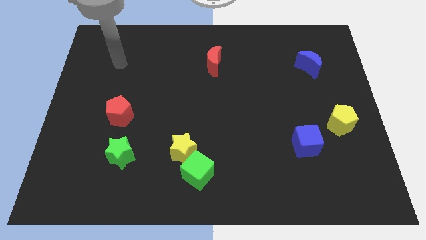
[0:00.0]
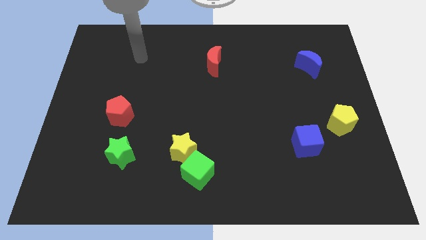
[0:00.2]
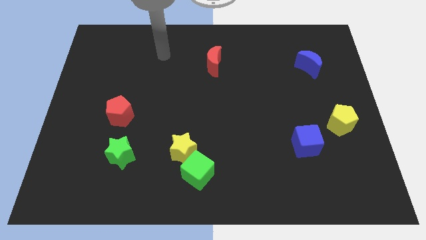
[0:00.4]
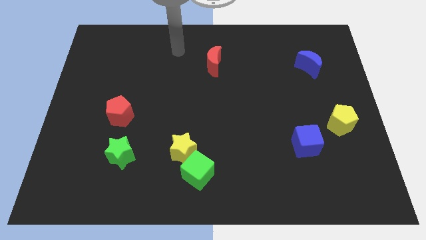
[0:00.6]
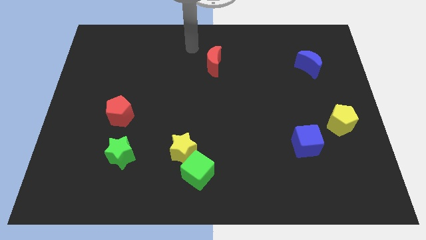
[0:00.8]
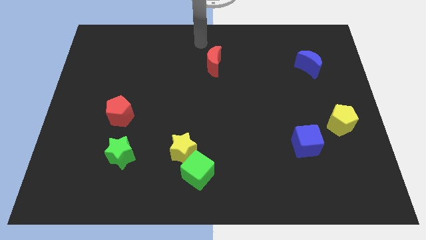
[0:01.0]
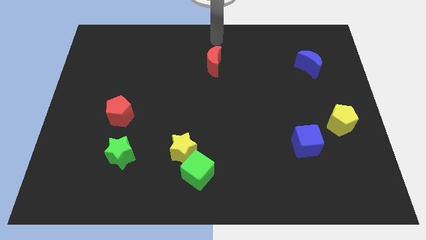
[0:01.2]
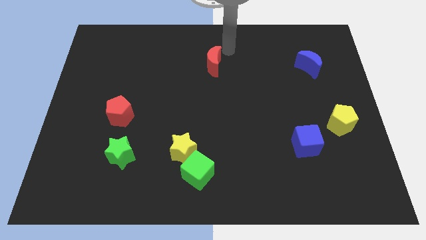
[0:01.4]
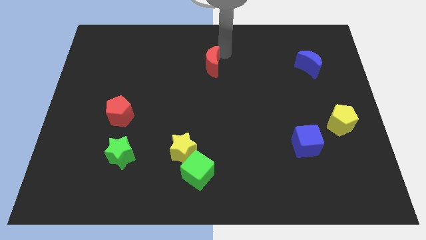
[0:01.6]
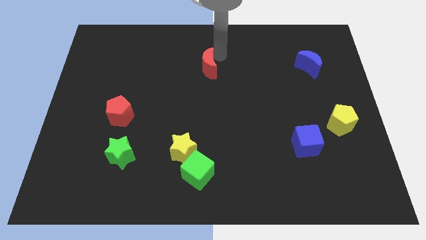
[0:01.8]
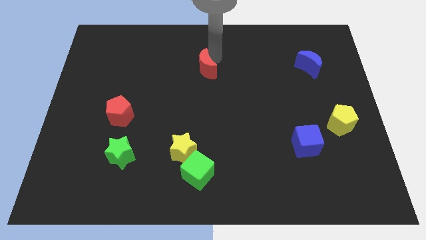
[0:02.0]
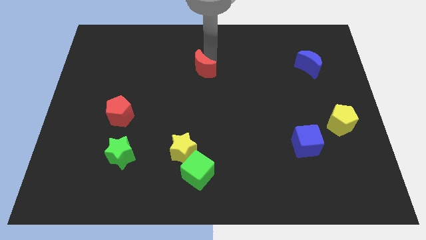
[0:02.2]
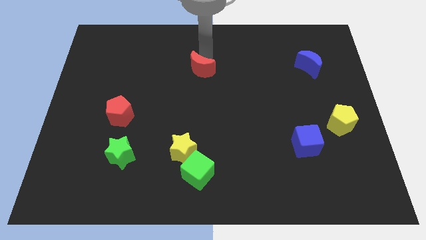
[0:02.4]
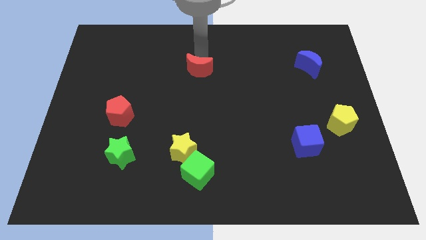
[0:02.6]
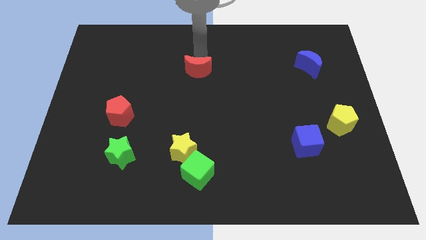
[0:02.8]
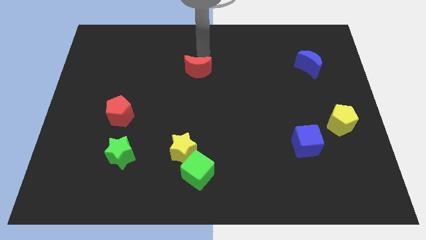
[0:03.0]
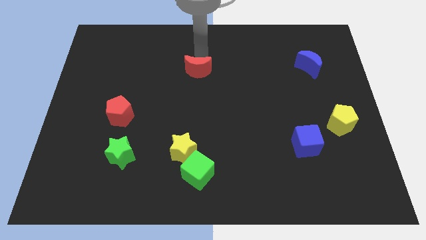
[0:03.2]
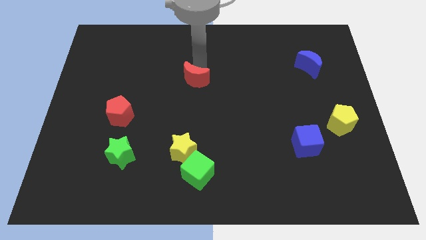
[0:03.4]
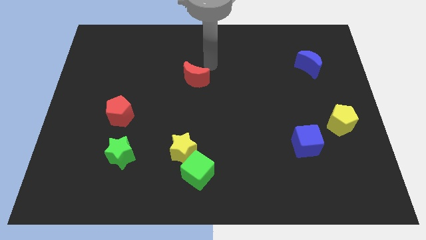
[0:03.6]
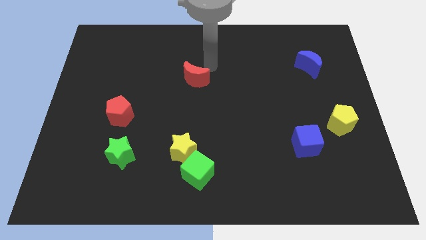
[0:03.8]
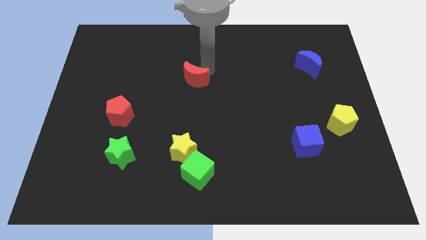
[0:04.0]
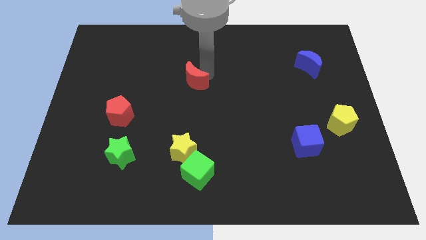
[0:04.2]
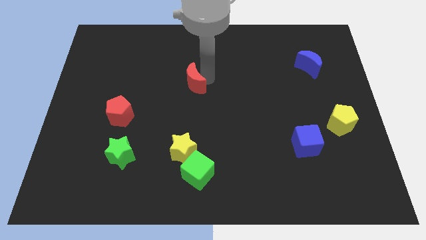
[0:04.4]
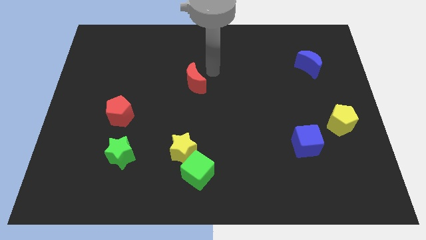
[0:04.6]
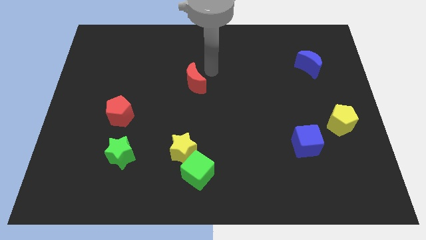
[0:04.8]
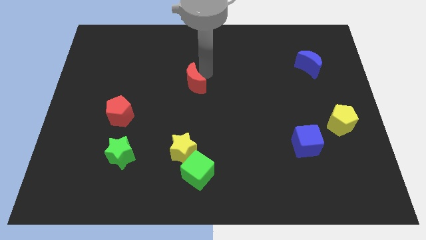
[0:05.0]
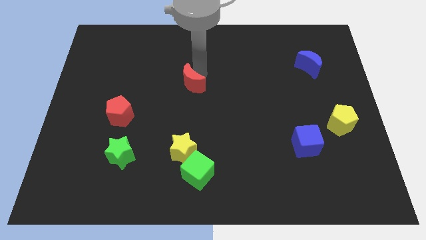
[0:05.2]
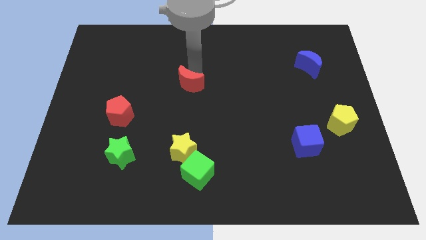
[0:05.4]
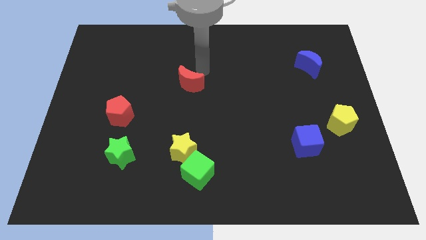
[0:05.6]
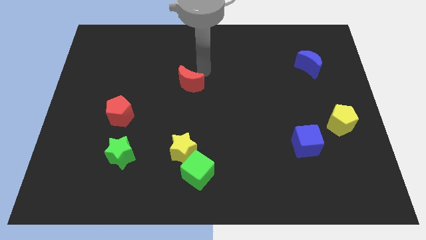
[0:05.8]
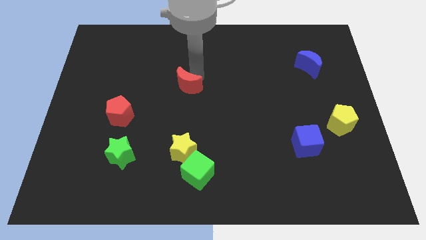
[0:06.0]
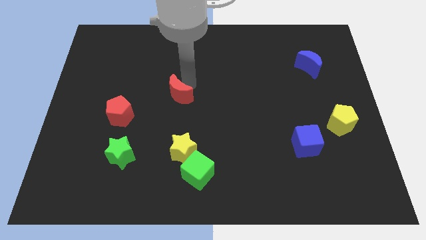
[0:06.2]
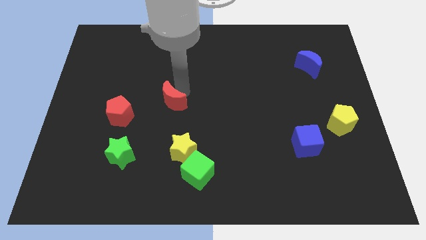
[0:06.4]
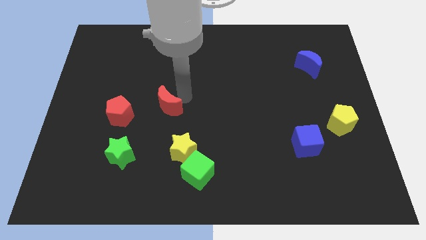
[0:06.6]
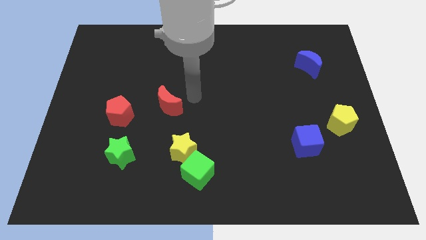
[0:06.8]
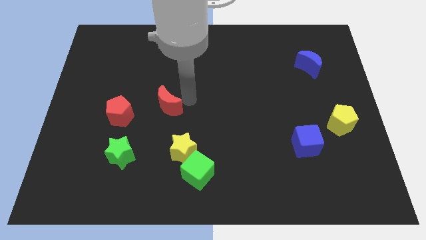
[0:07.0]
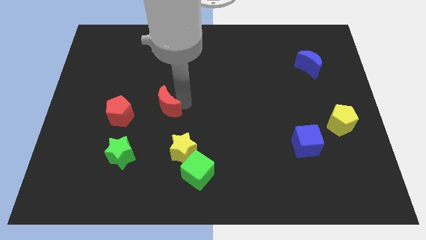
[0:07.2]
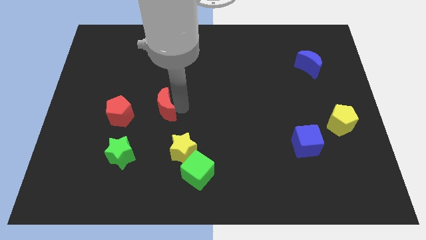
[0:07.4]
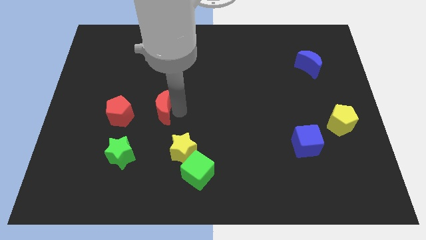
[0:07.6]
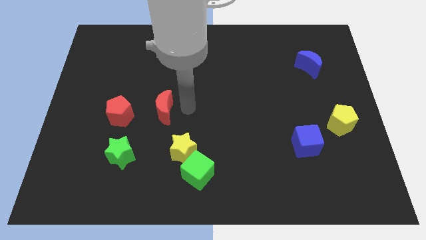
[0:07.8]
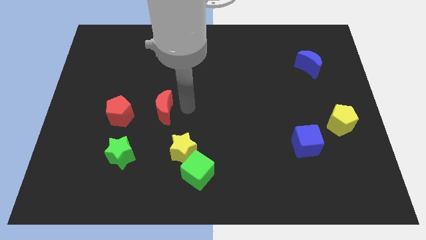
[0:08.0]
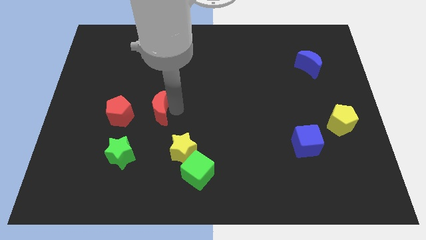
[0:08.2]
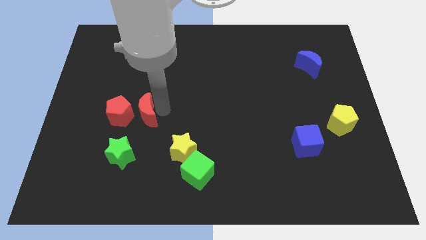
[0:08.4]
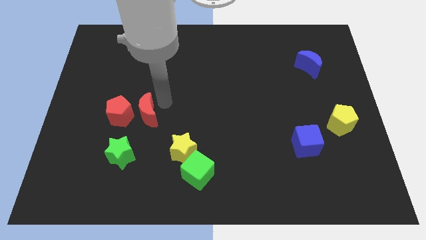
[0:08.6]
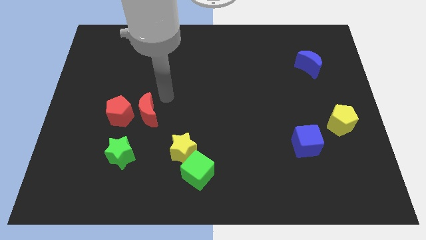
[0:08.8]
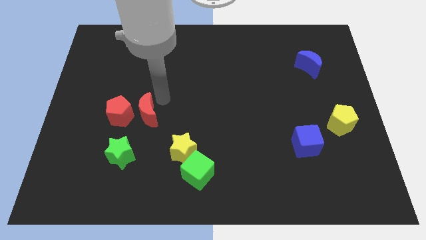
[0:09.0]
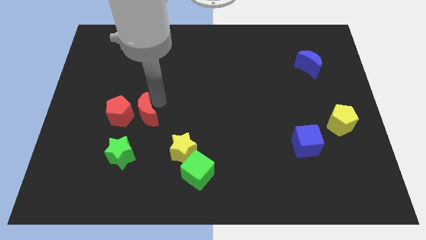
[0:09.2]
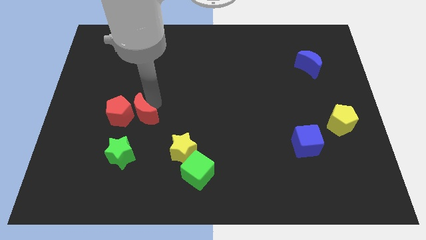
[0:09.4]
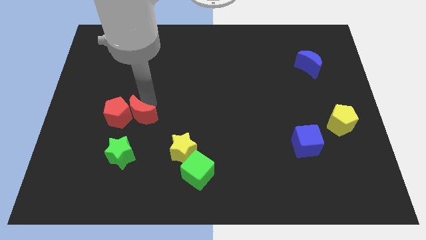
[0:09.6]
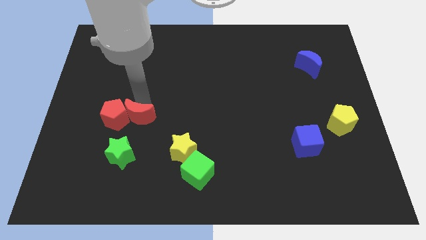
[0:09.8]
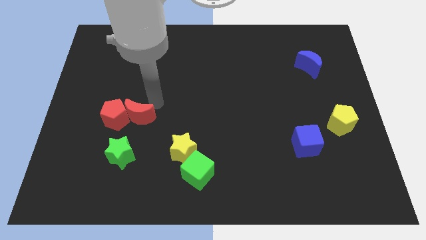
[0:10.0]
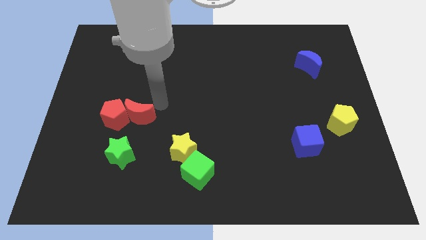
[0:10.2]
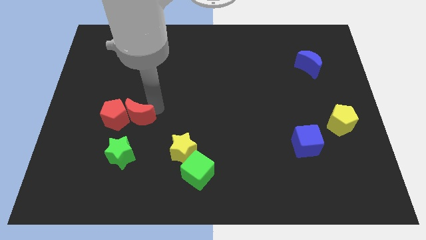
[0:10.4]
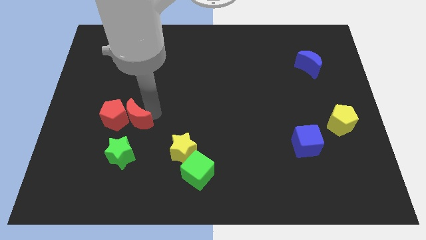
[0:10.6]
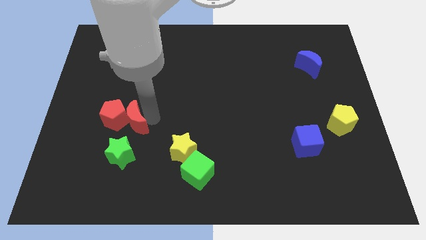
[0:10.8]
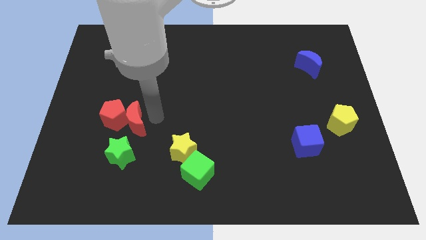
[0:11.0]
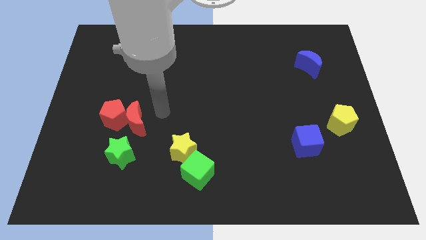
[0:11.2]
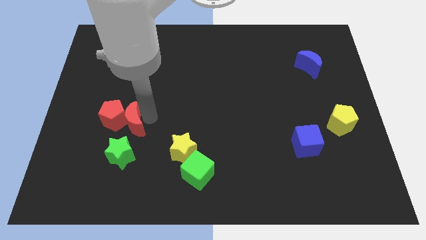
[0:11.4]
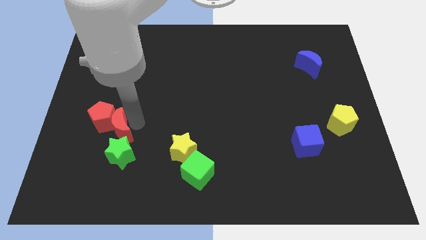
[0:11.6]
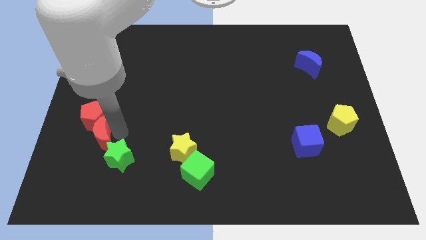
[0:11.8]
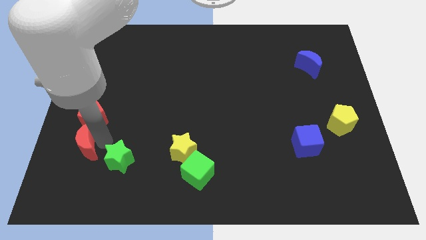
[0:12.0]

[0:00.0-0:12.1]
move the red moon to the bottom left side of the red pentagon
